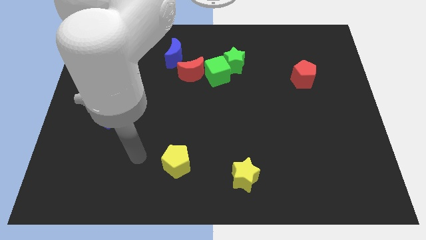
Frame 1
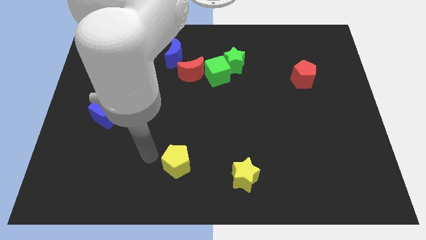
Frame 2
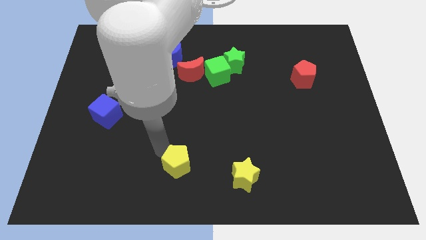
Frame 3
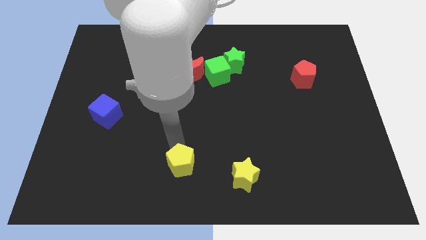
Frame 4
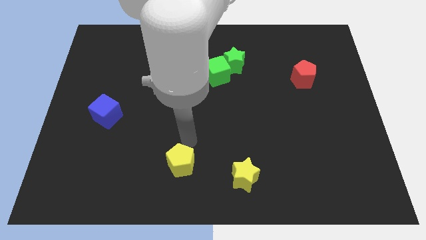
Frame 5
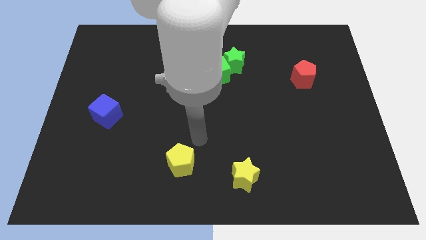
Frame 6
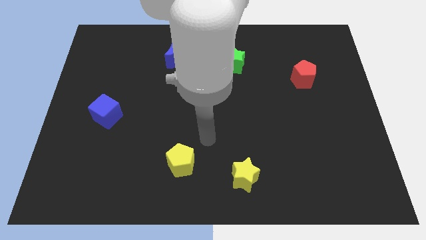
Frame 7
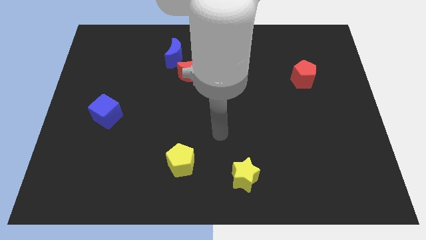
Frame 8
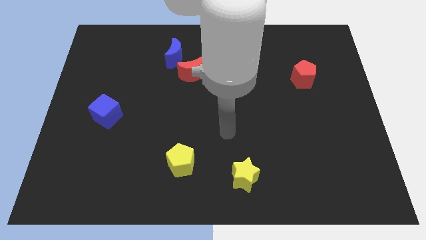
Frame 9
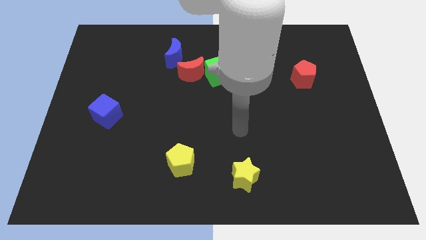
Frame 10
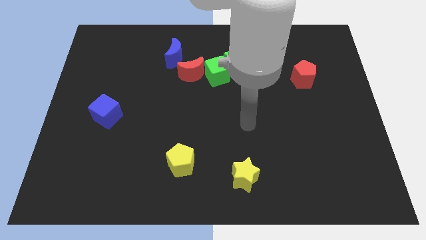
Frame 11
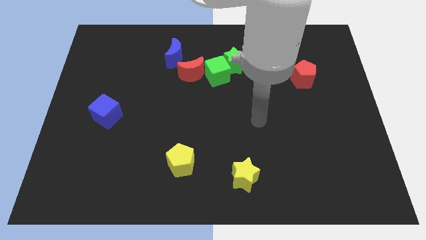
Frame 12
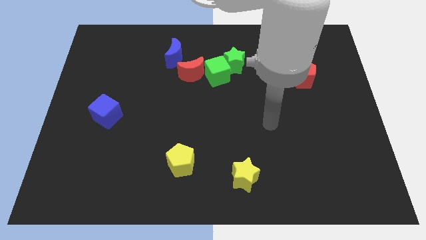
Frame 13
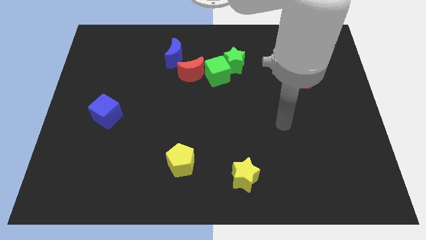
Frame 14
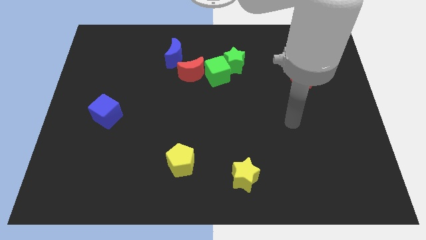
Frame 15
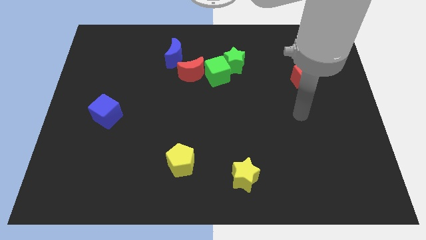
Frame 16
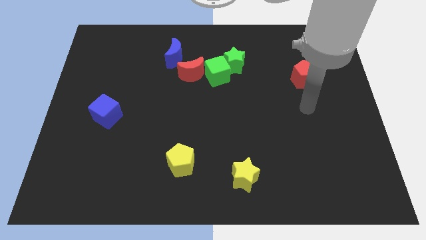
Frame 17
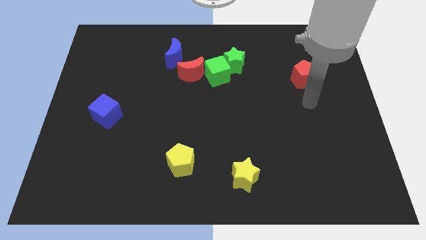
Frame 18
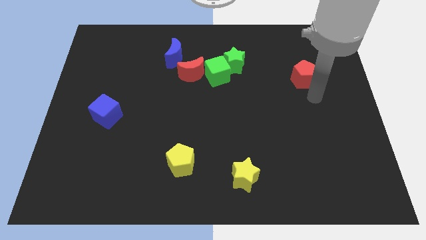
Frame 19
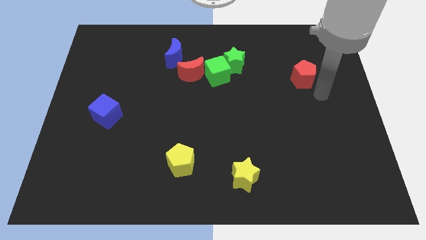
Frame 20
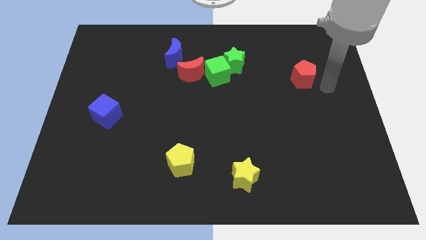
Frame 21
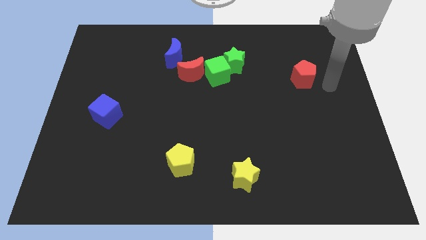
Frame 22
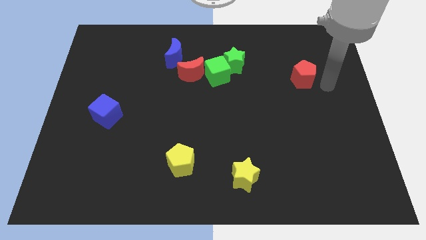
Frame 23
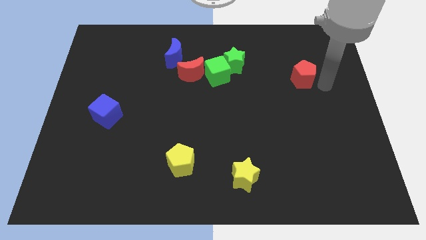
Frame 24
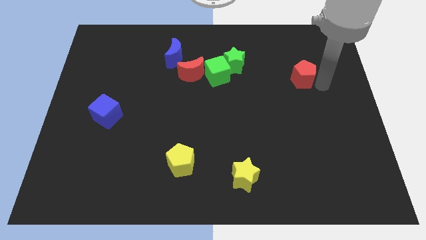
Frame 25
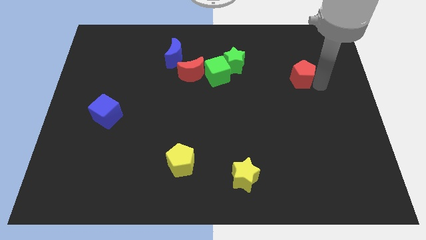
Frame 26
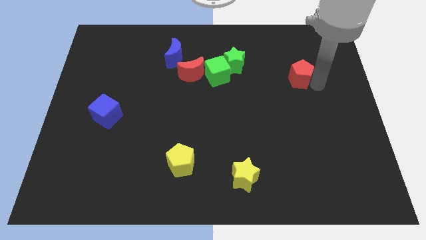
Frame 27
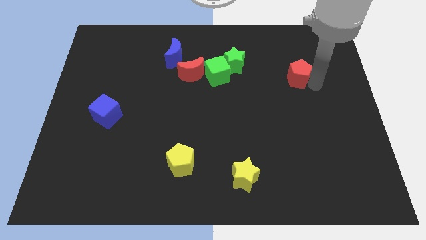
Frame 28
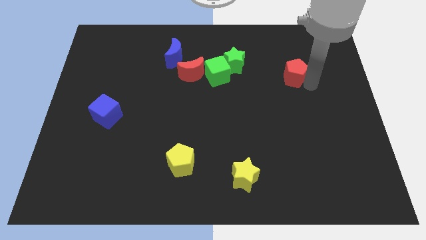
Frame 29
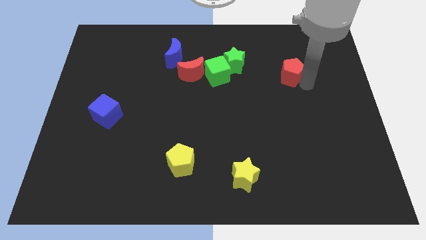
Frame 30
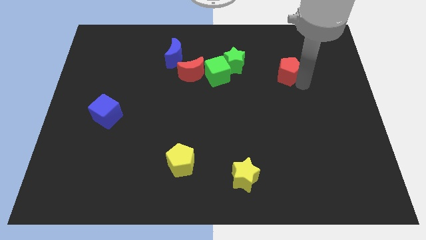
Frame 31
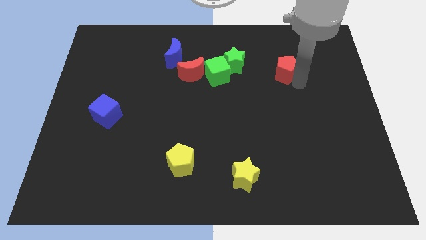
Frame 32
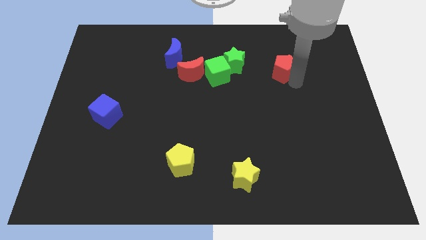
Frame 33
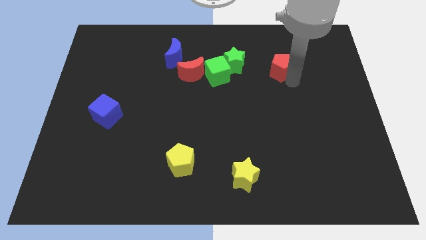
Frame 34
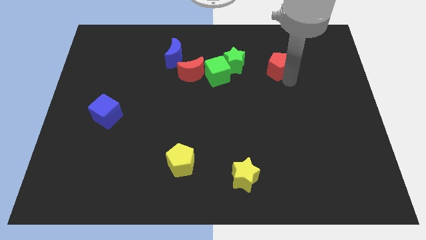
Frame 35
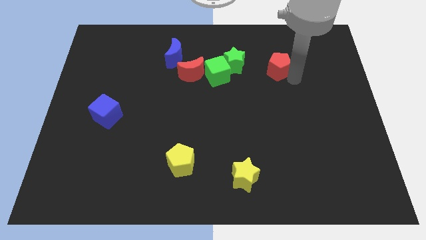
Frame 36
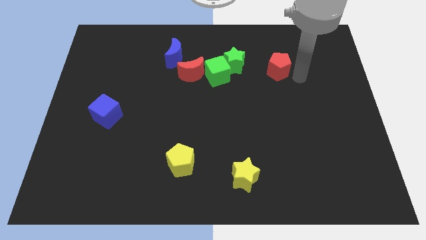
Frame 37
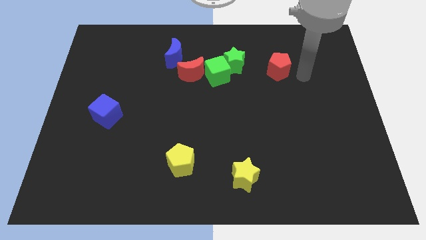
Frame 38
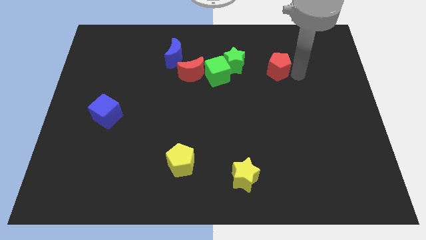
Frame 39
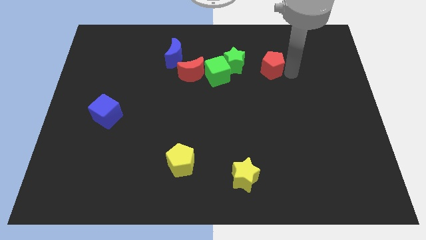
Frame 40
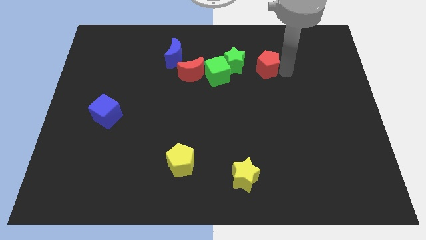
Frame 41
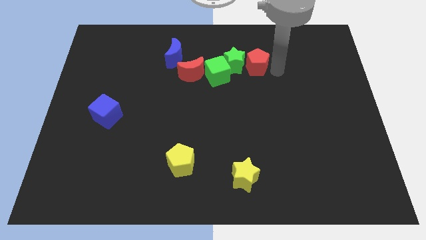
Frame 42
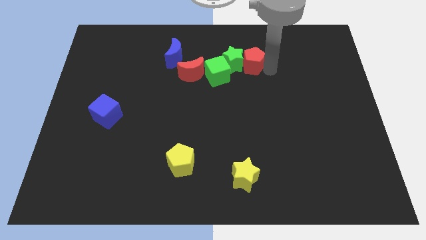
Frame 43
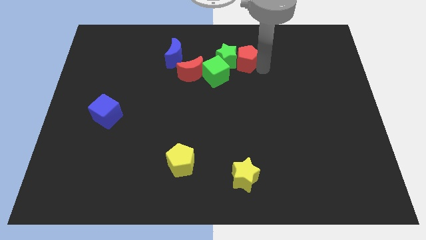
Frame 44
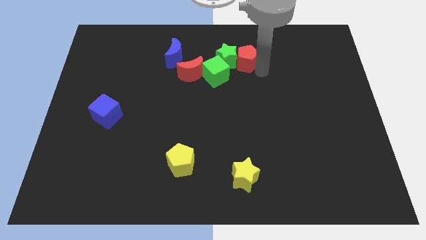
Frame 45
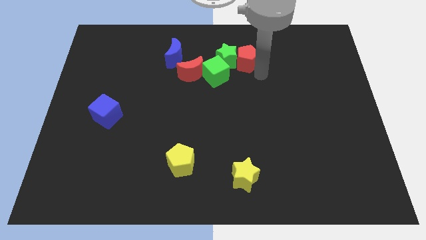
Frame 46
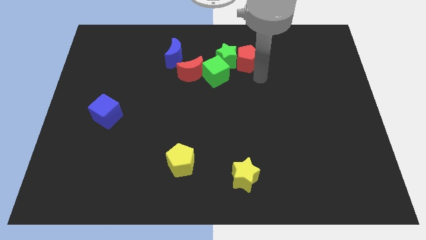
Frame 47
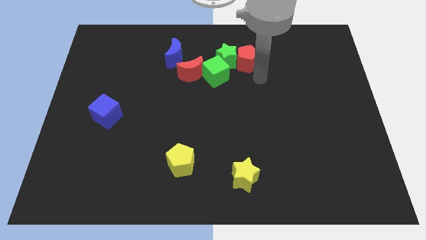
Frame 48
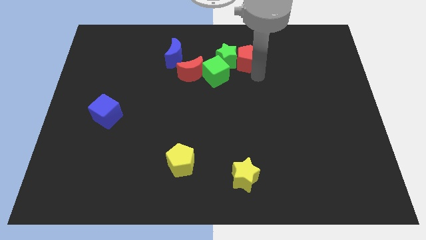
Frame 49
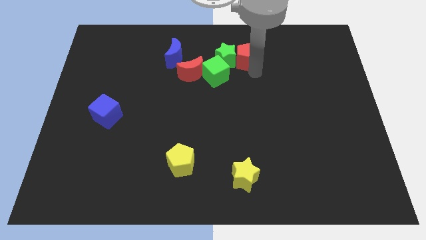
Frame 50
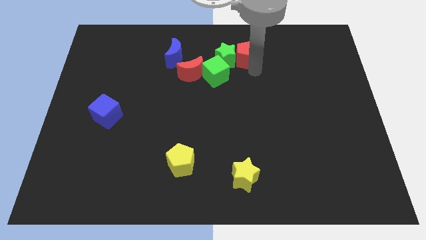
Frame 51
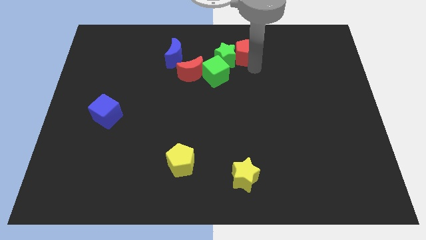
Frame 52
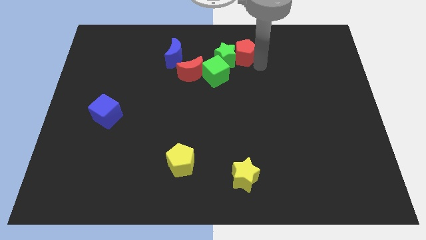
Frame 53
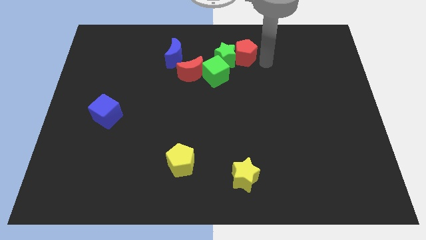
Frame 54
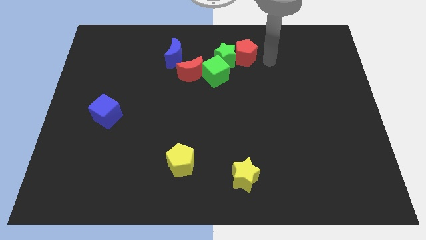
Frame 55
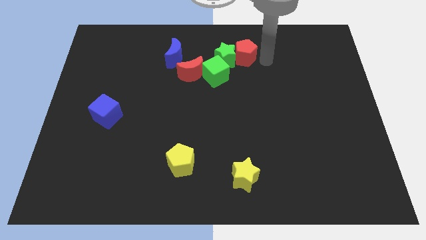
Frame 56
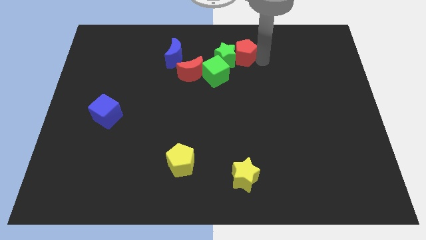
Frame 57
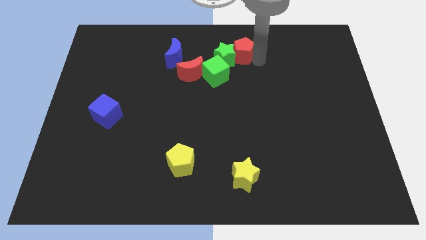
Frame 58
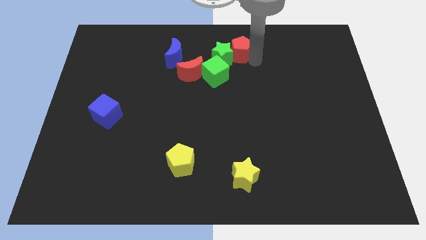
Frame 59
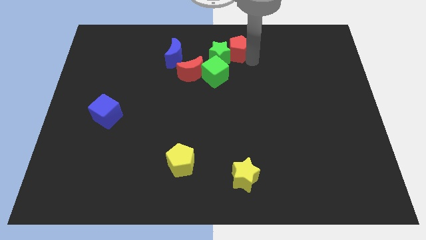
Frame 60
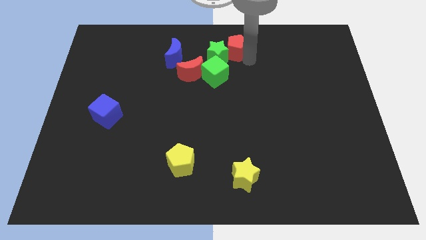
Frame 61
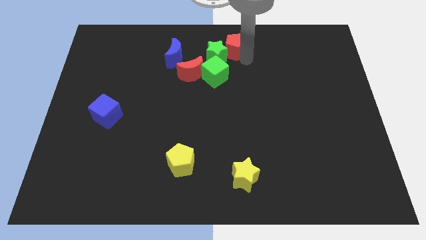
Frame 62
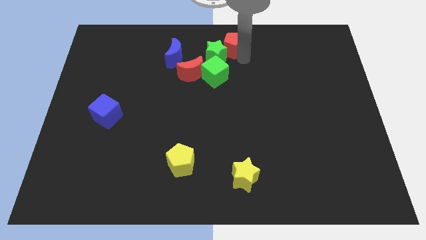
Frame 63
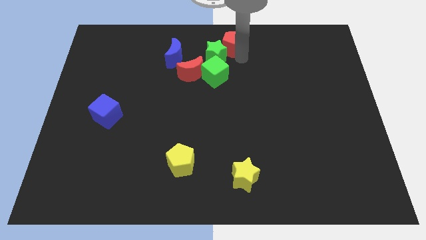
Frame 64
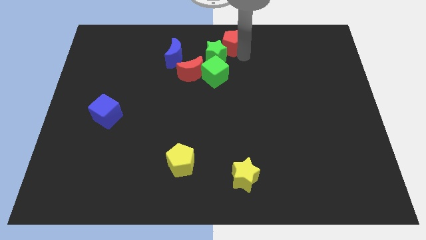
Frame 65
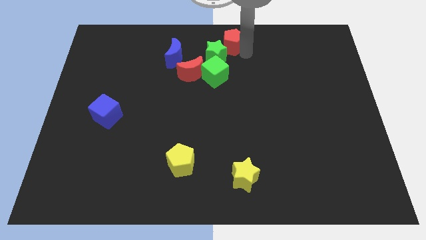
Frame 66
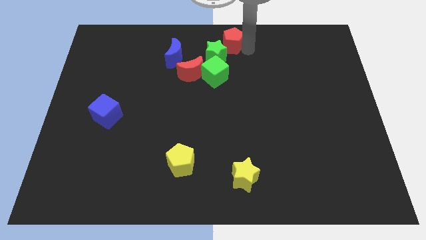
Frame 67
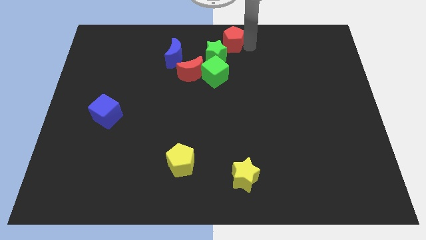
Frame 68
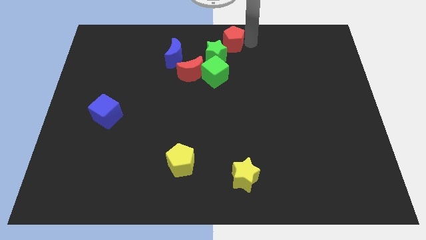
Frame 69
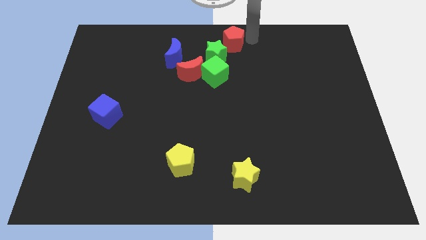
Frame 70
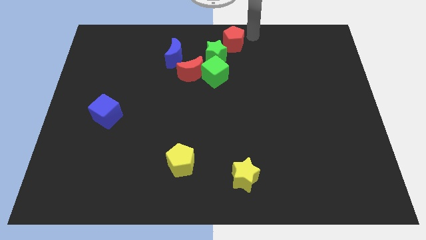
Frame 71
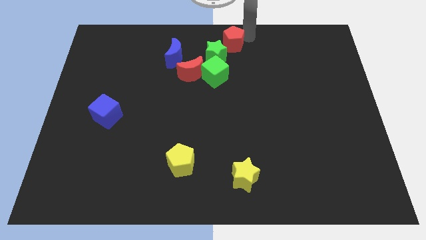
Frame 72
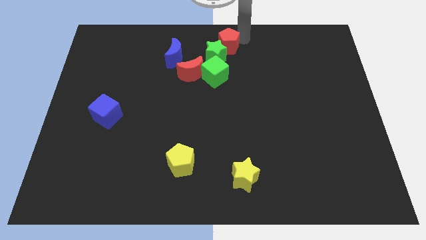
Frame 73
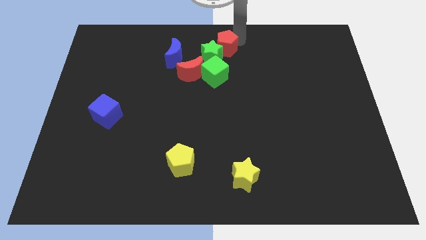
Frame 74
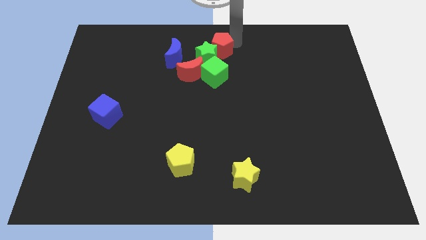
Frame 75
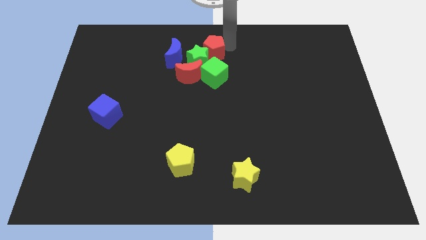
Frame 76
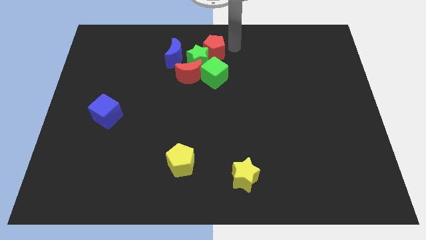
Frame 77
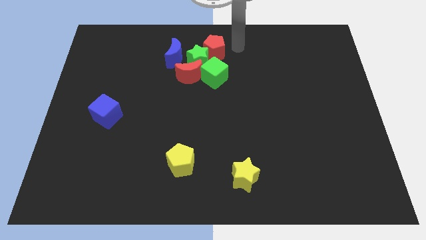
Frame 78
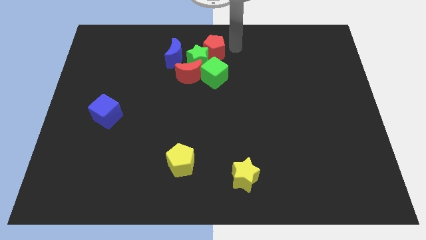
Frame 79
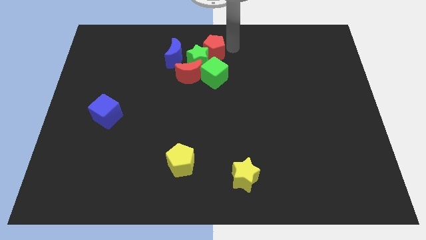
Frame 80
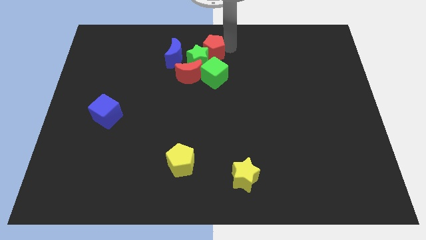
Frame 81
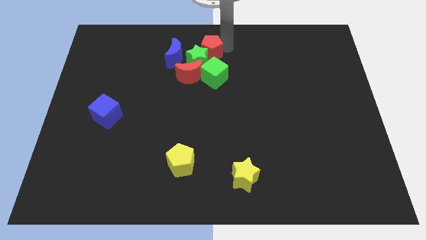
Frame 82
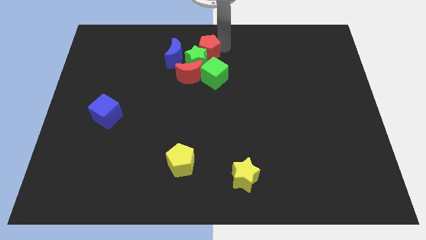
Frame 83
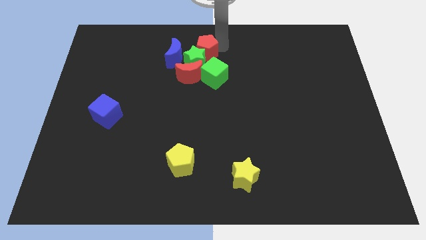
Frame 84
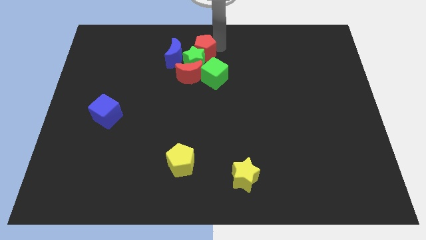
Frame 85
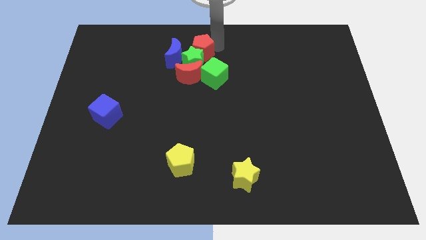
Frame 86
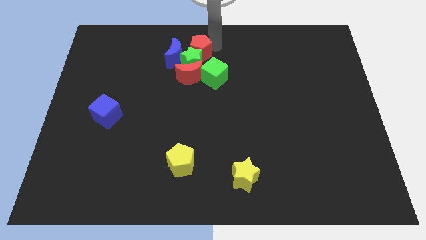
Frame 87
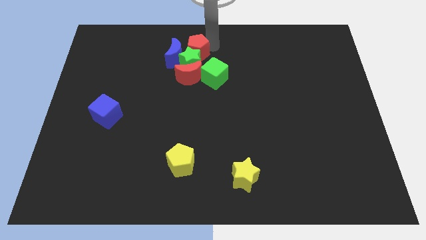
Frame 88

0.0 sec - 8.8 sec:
move the red pentagon close to the blue moon
